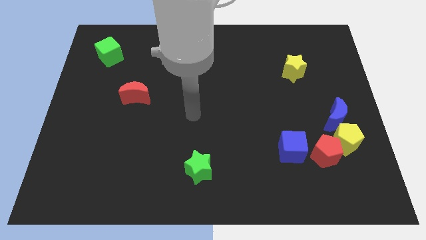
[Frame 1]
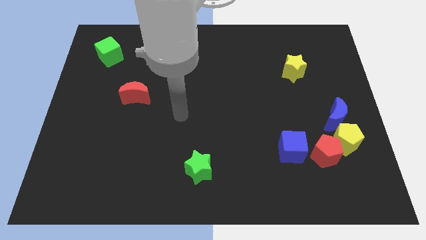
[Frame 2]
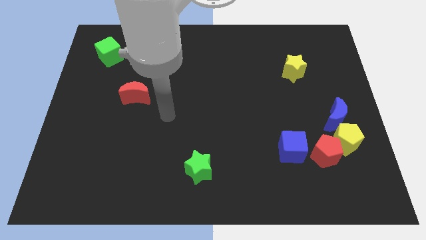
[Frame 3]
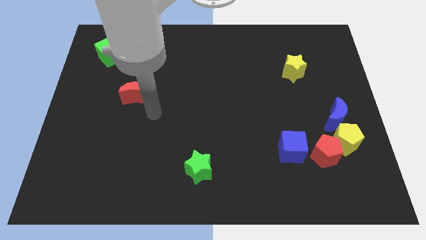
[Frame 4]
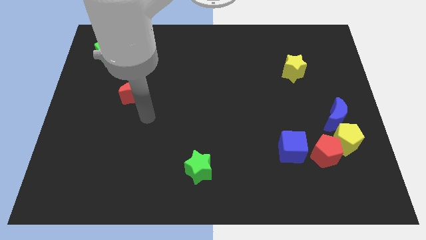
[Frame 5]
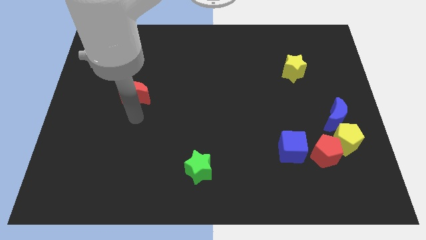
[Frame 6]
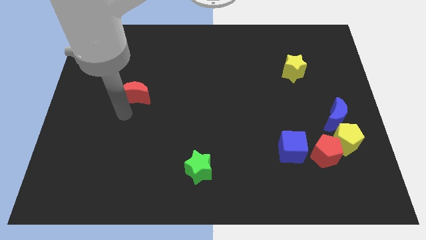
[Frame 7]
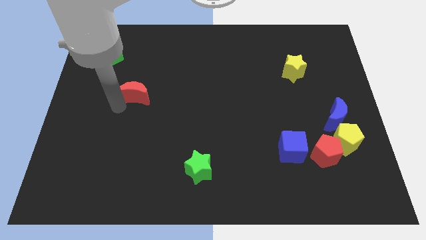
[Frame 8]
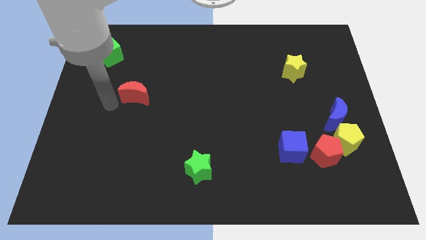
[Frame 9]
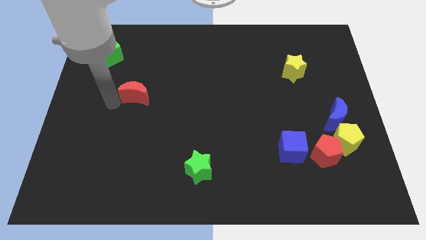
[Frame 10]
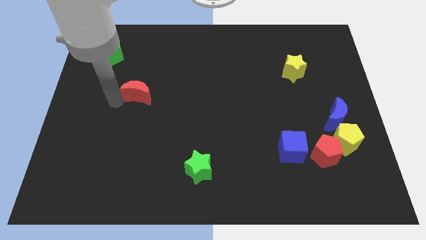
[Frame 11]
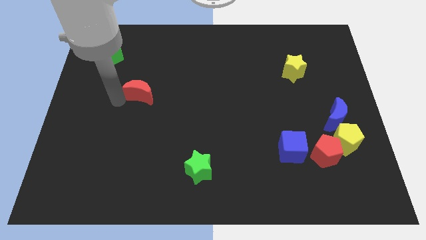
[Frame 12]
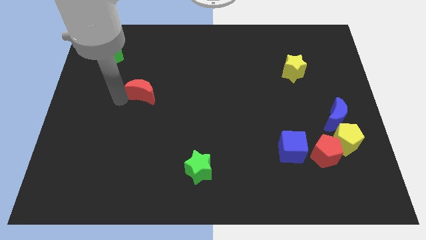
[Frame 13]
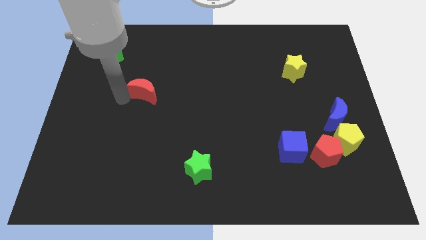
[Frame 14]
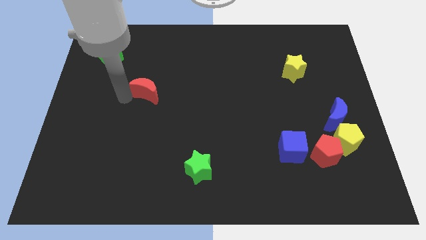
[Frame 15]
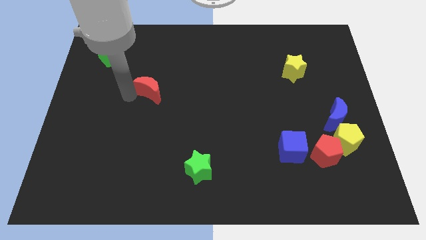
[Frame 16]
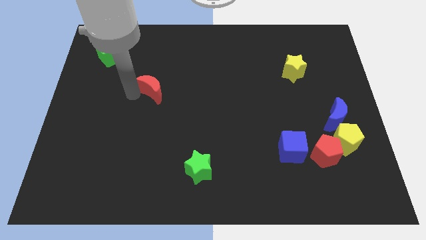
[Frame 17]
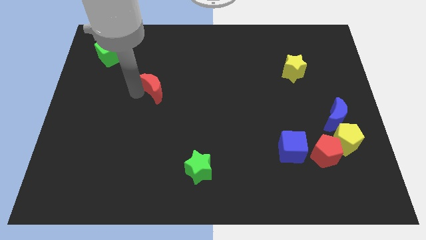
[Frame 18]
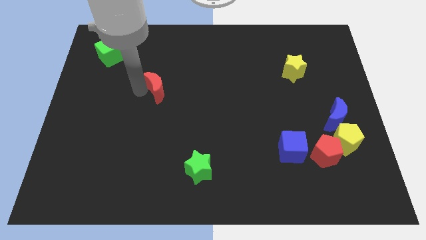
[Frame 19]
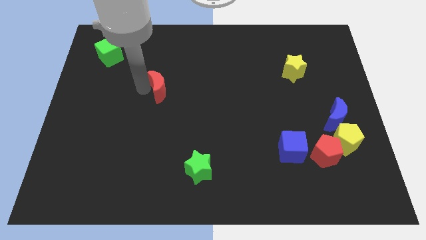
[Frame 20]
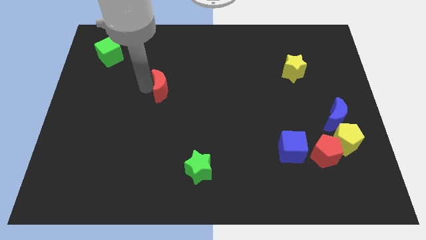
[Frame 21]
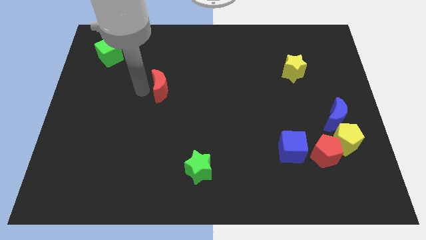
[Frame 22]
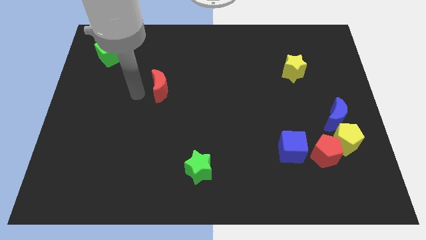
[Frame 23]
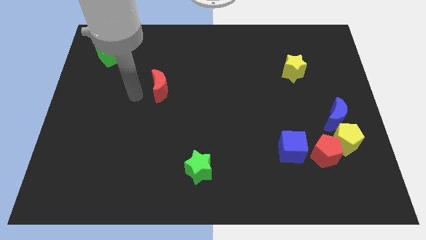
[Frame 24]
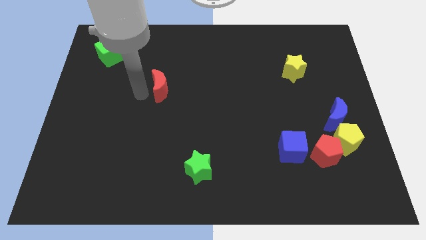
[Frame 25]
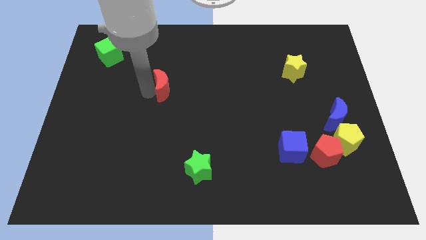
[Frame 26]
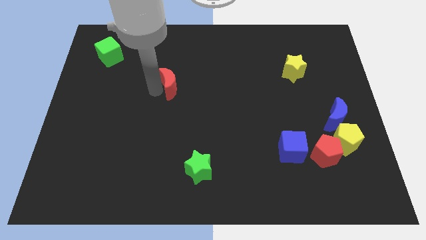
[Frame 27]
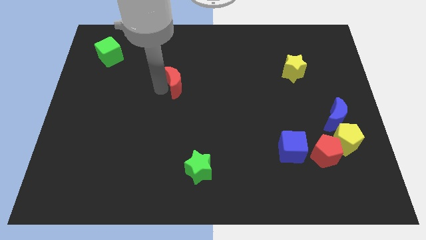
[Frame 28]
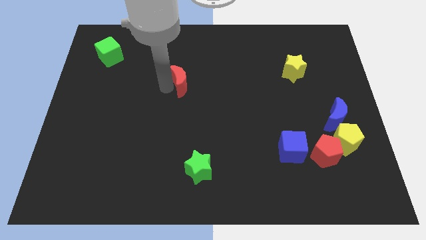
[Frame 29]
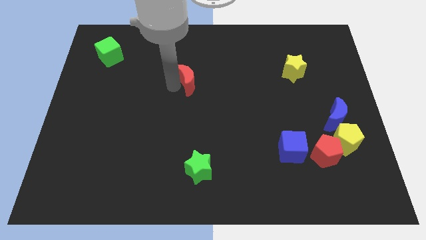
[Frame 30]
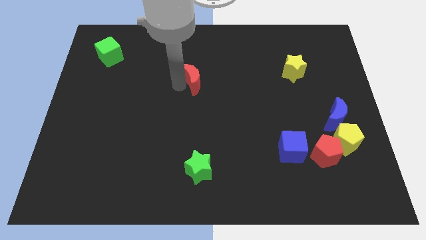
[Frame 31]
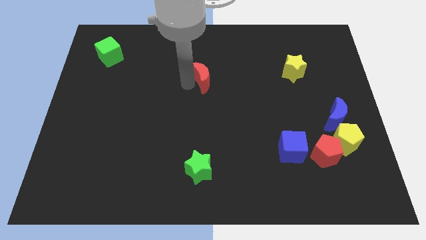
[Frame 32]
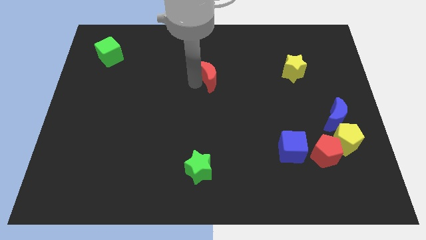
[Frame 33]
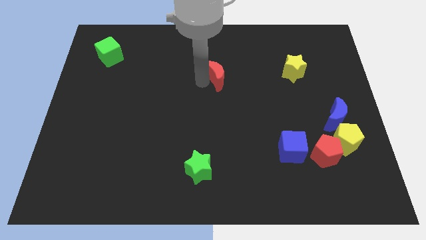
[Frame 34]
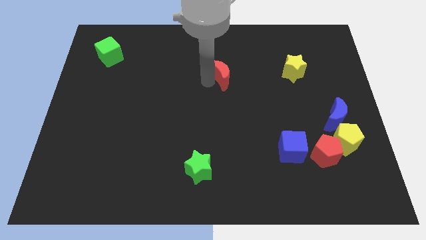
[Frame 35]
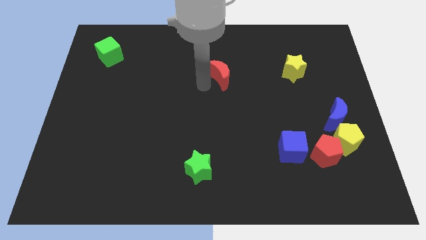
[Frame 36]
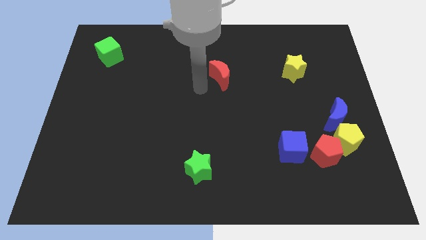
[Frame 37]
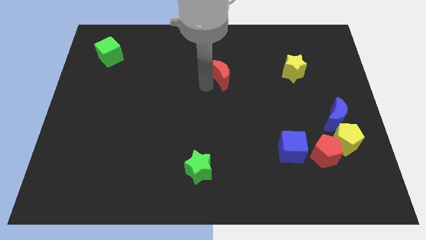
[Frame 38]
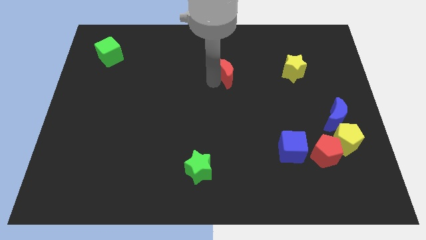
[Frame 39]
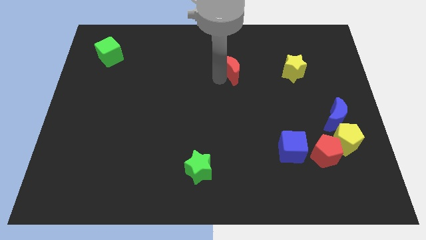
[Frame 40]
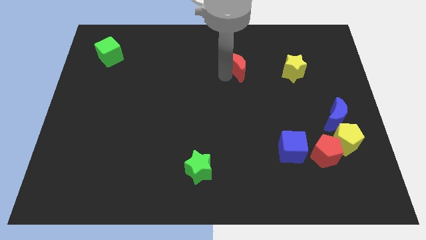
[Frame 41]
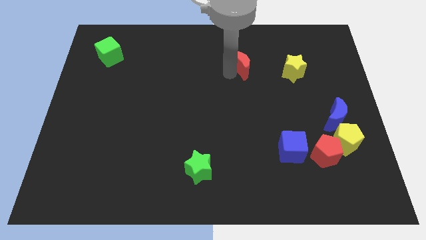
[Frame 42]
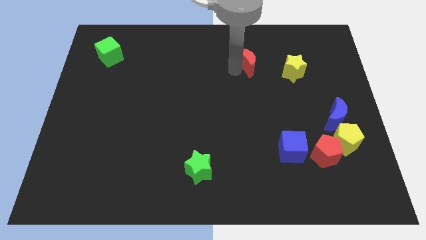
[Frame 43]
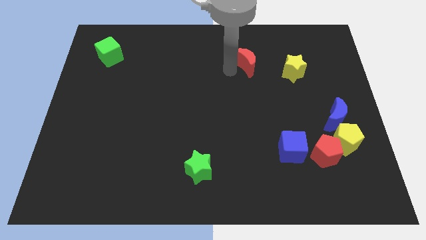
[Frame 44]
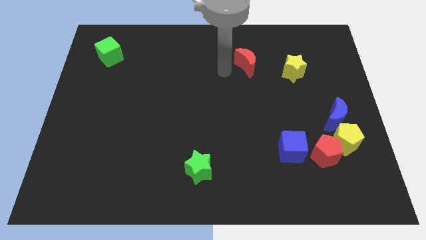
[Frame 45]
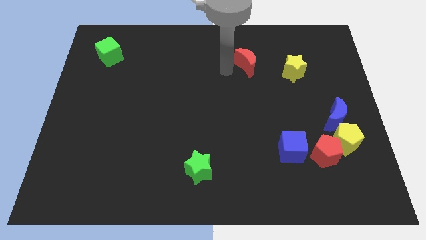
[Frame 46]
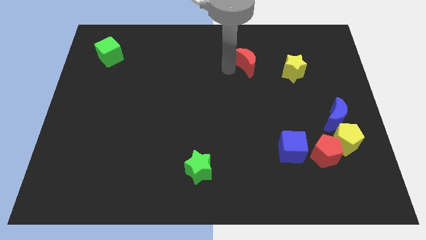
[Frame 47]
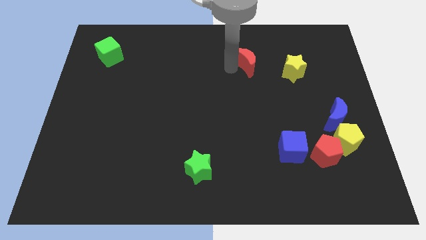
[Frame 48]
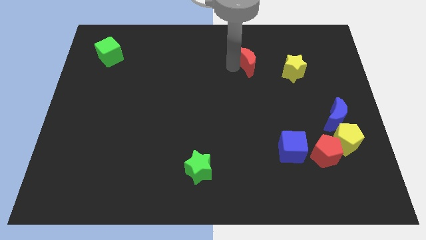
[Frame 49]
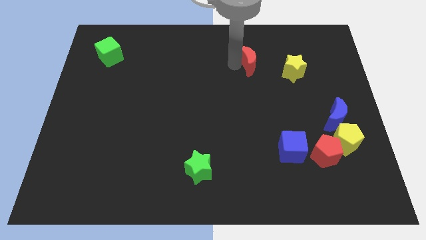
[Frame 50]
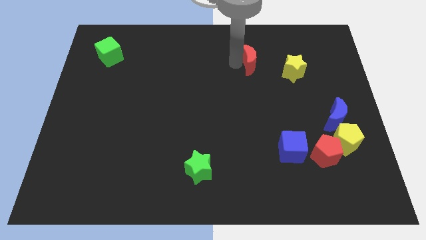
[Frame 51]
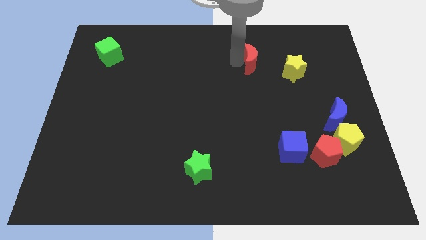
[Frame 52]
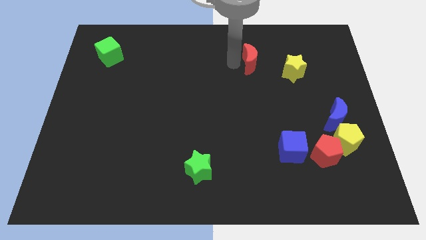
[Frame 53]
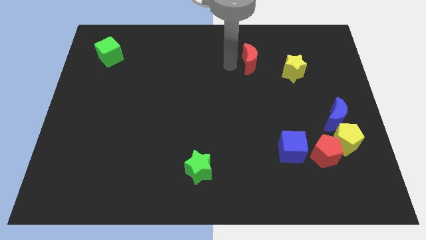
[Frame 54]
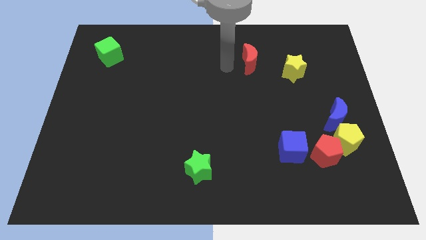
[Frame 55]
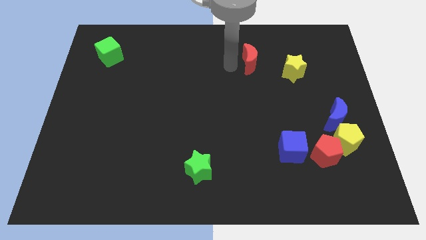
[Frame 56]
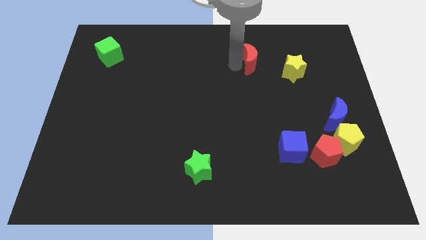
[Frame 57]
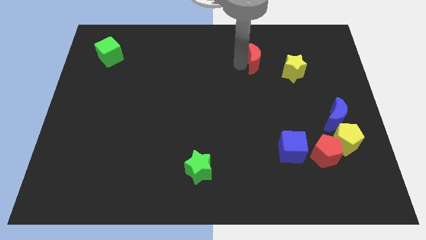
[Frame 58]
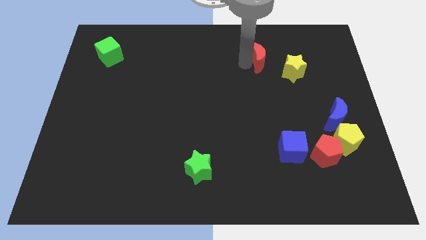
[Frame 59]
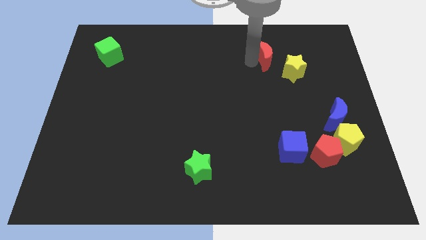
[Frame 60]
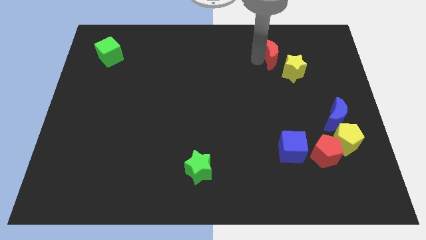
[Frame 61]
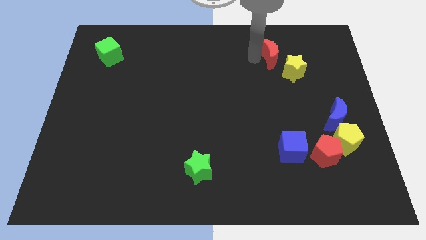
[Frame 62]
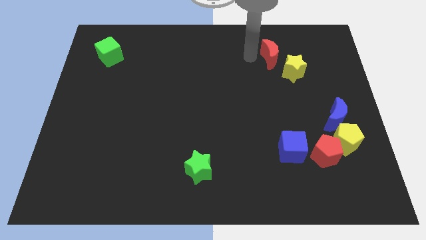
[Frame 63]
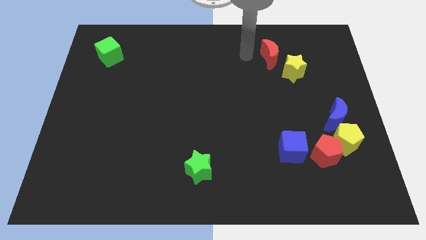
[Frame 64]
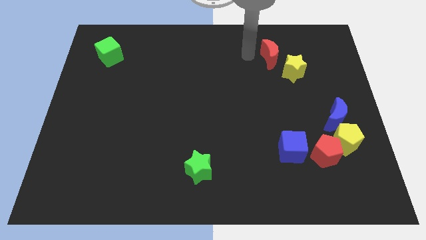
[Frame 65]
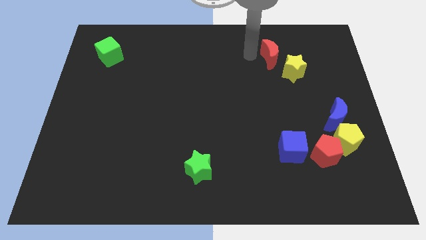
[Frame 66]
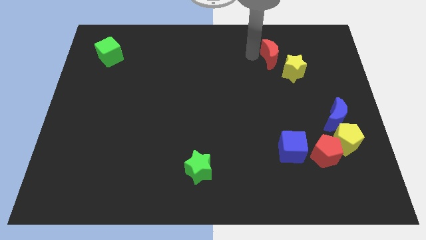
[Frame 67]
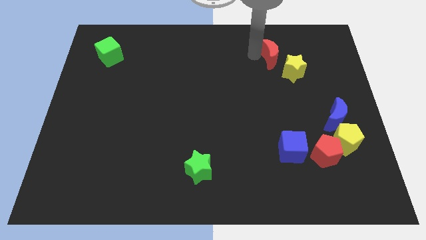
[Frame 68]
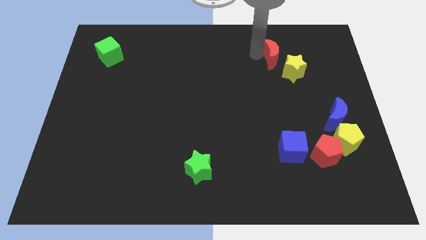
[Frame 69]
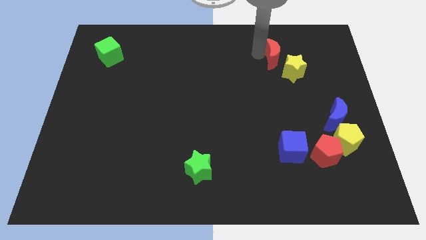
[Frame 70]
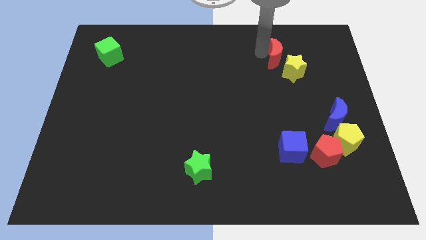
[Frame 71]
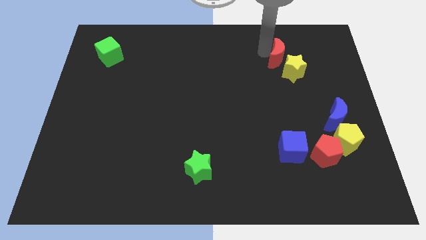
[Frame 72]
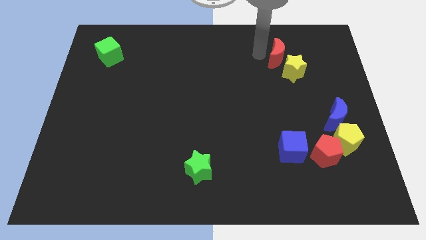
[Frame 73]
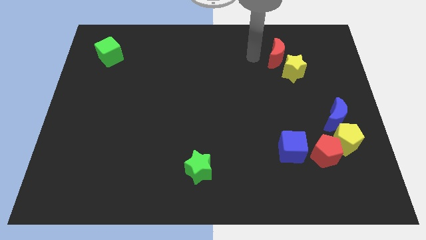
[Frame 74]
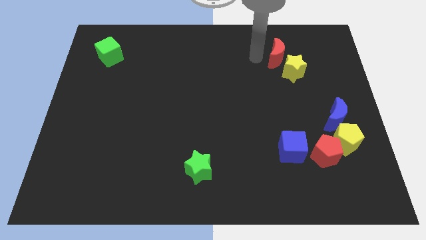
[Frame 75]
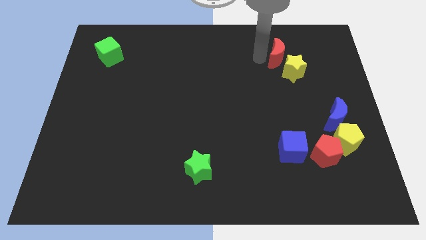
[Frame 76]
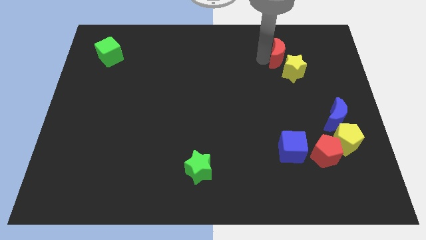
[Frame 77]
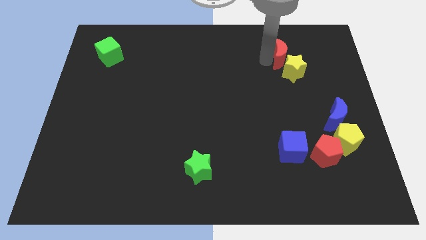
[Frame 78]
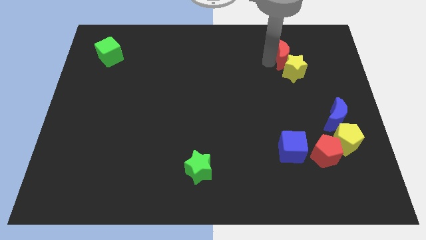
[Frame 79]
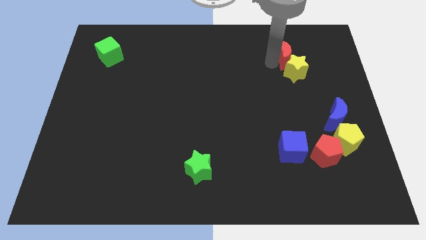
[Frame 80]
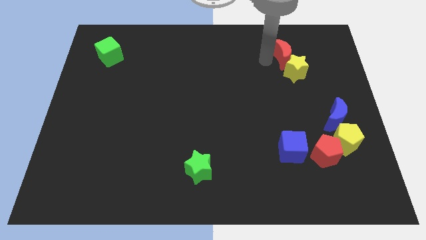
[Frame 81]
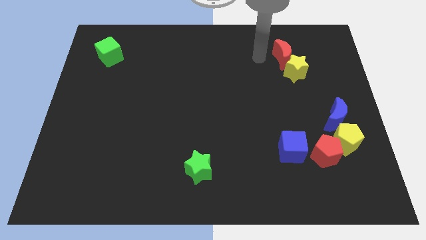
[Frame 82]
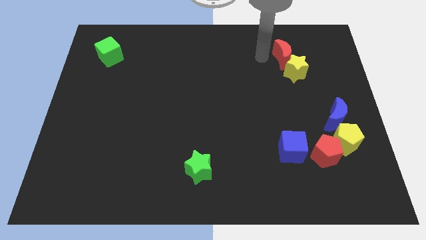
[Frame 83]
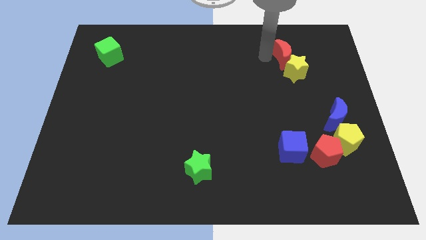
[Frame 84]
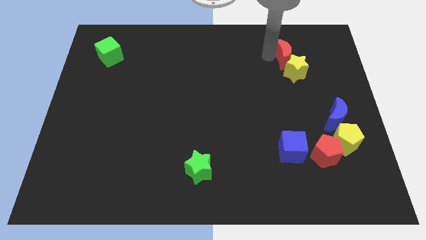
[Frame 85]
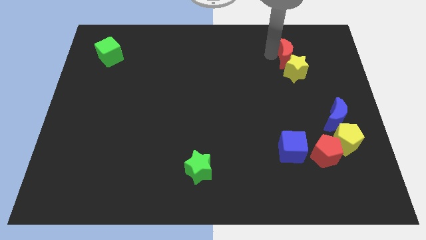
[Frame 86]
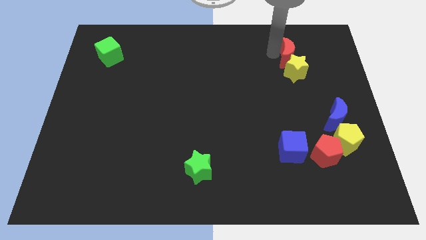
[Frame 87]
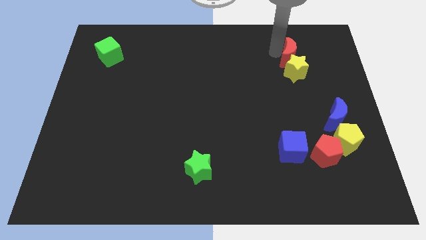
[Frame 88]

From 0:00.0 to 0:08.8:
move the red moon to the top right of the yellow star
